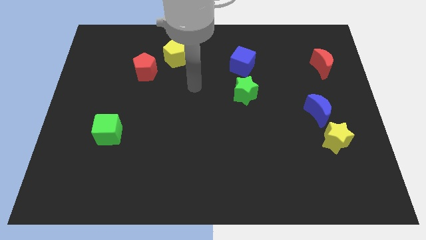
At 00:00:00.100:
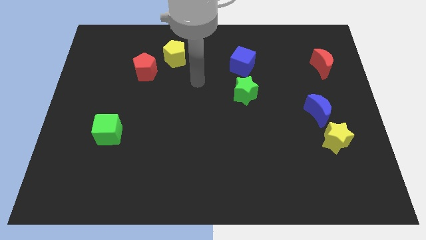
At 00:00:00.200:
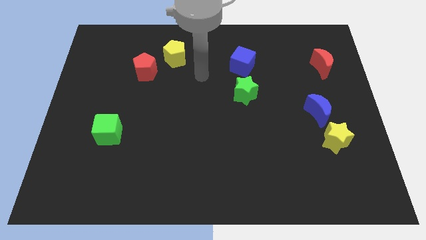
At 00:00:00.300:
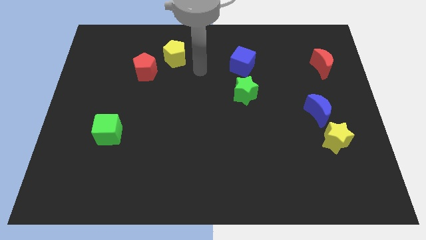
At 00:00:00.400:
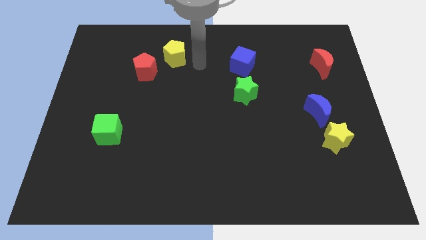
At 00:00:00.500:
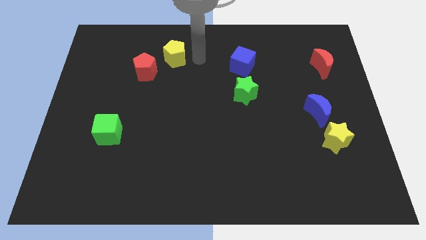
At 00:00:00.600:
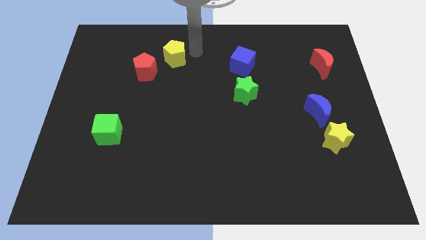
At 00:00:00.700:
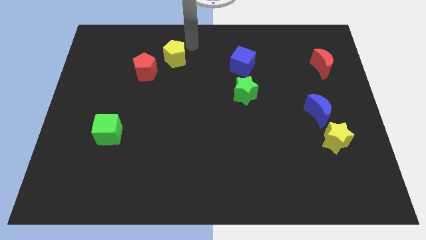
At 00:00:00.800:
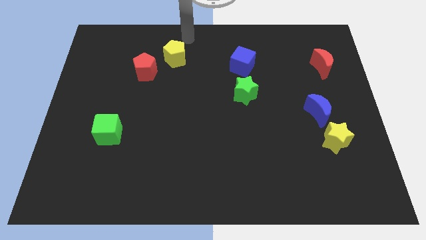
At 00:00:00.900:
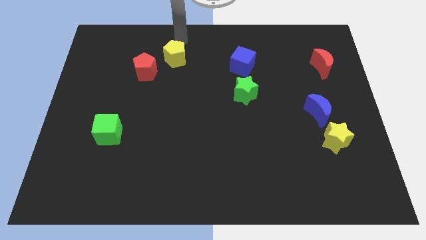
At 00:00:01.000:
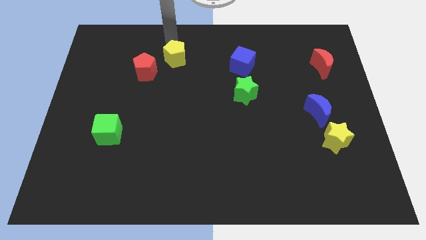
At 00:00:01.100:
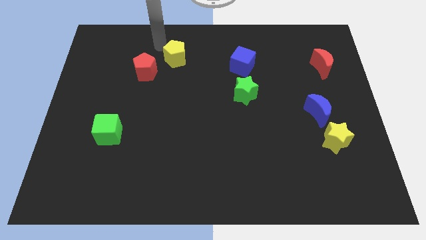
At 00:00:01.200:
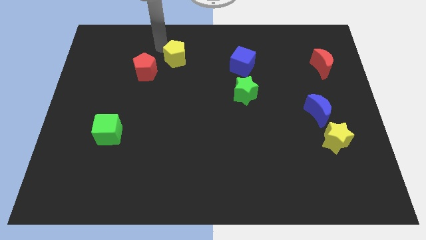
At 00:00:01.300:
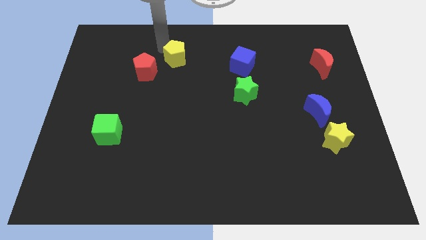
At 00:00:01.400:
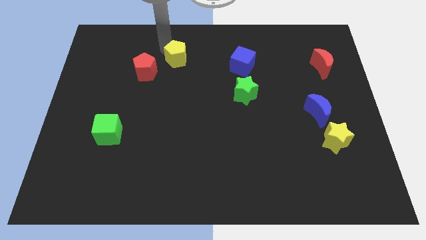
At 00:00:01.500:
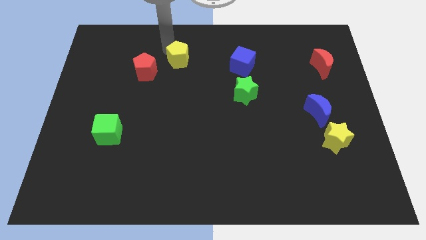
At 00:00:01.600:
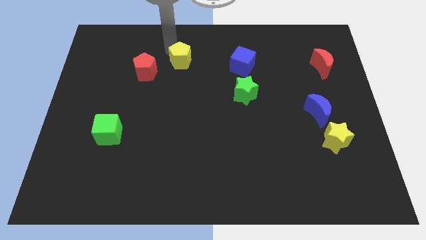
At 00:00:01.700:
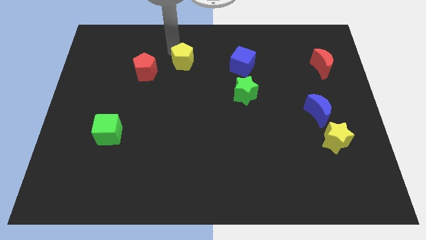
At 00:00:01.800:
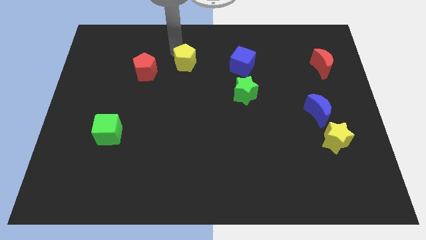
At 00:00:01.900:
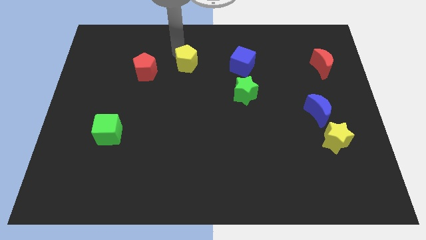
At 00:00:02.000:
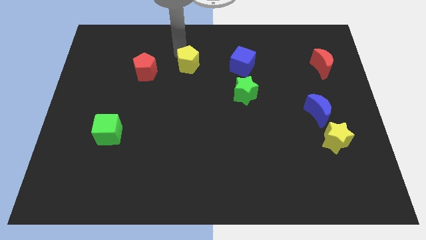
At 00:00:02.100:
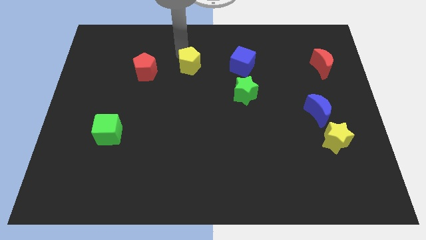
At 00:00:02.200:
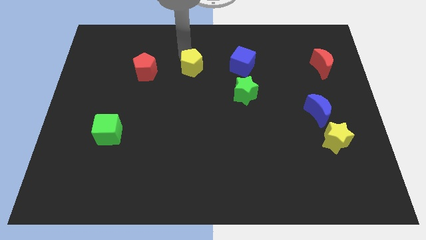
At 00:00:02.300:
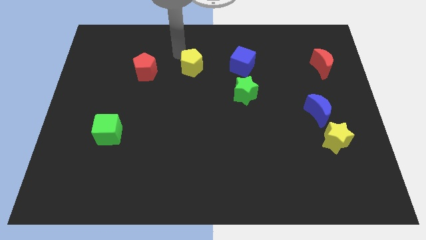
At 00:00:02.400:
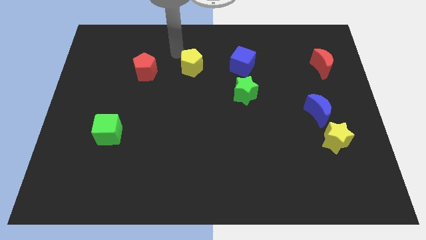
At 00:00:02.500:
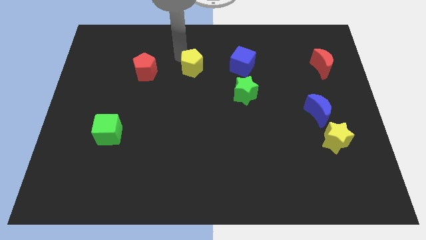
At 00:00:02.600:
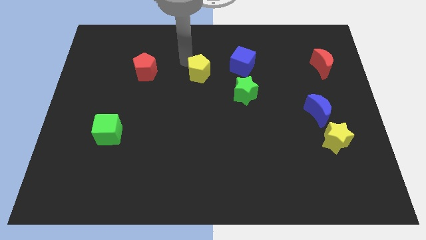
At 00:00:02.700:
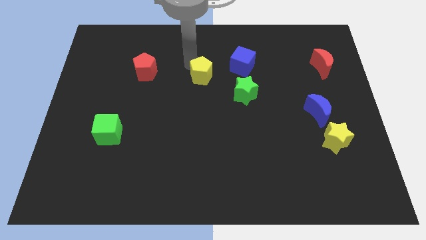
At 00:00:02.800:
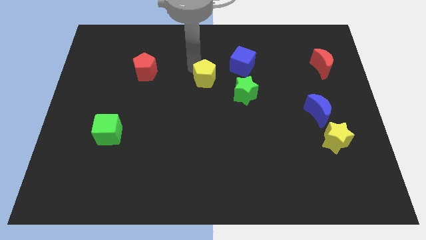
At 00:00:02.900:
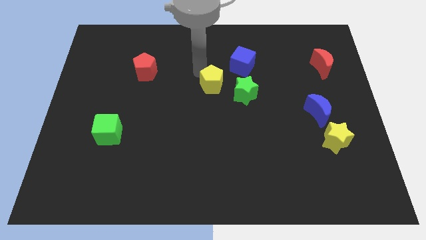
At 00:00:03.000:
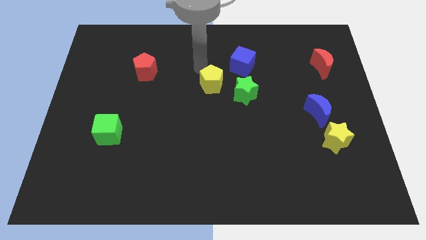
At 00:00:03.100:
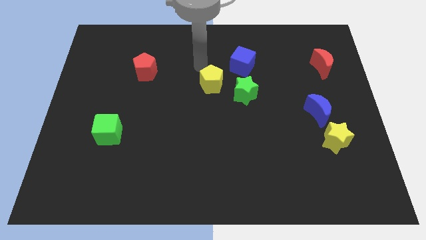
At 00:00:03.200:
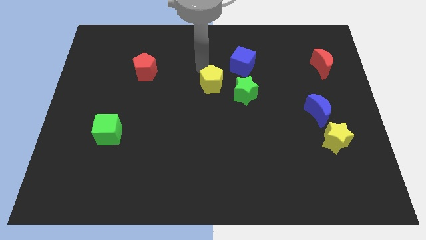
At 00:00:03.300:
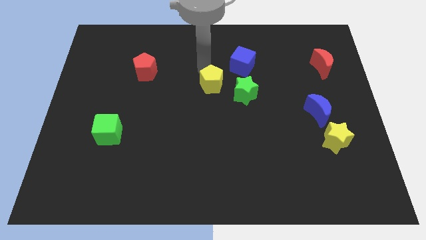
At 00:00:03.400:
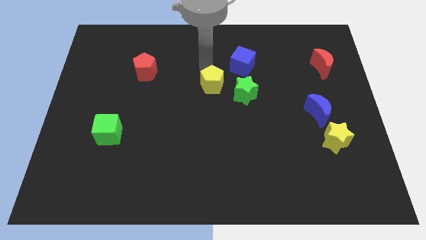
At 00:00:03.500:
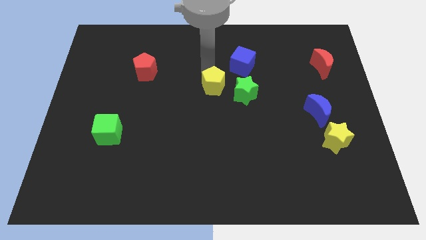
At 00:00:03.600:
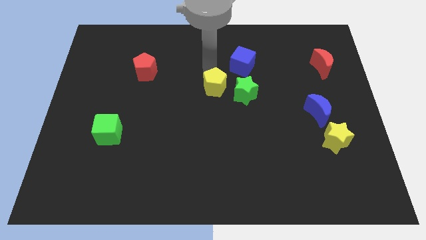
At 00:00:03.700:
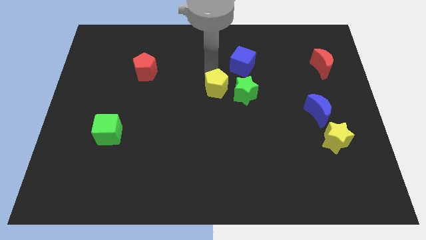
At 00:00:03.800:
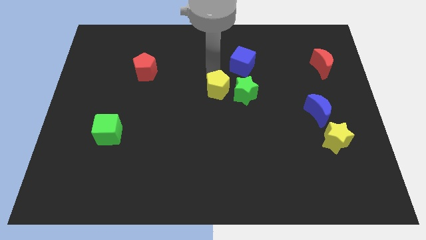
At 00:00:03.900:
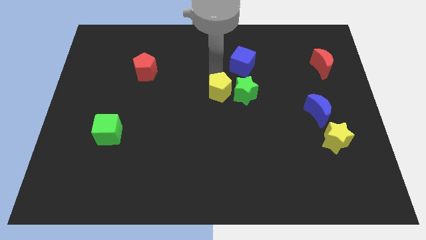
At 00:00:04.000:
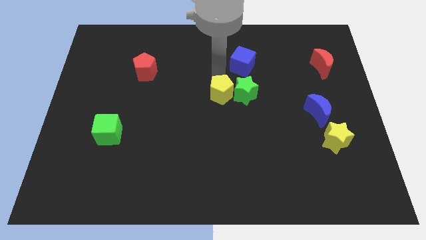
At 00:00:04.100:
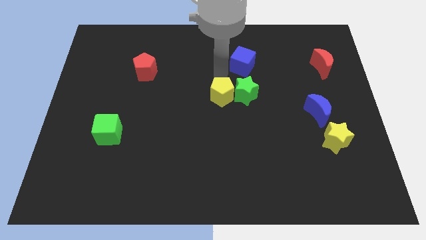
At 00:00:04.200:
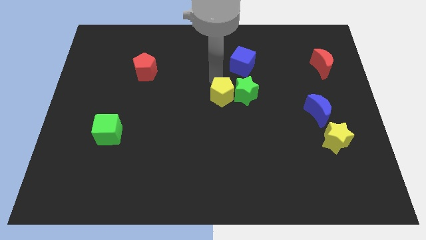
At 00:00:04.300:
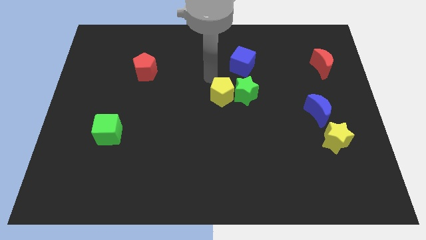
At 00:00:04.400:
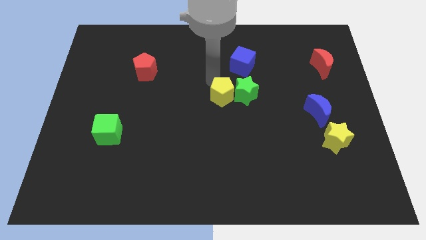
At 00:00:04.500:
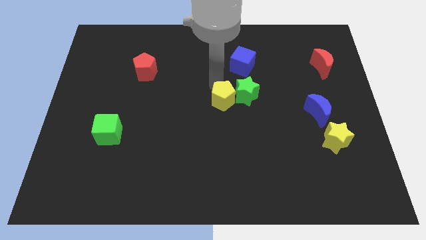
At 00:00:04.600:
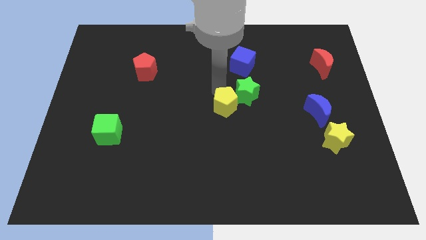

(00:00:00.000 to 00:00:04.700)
move the yellow pentagon down and to the right

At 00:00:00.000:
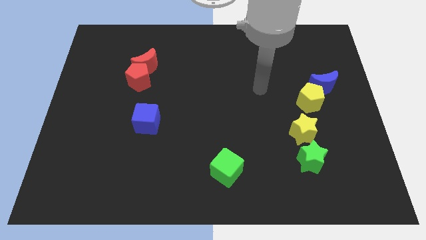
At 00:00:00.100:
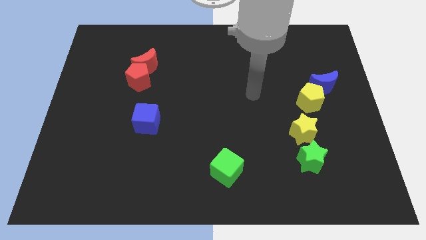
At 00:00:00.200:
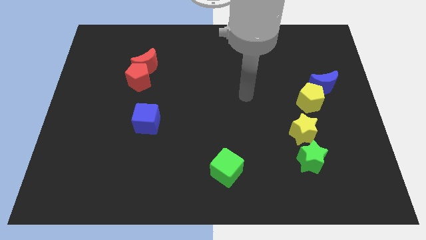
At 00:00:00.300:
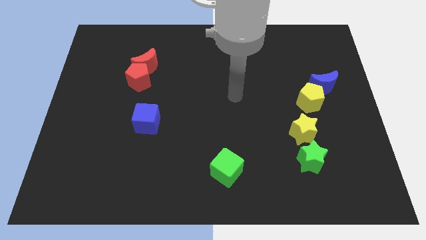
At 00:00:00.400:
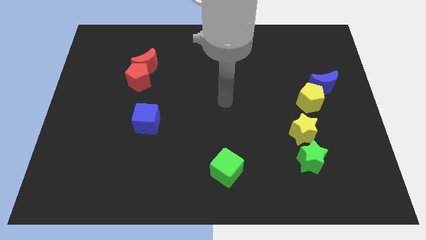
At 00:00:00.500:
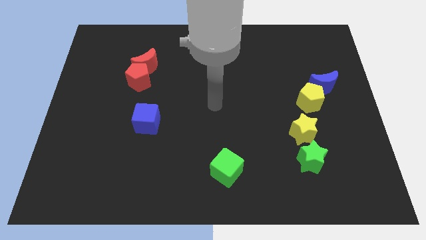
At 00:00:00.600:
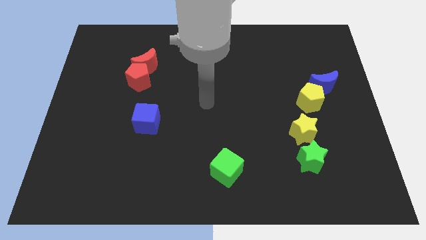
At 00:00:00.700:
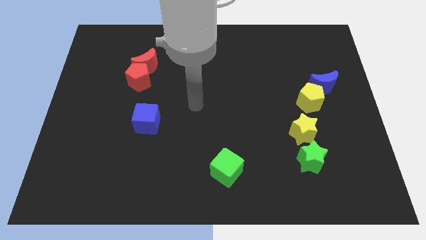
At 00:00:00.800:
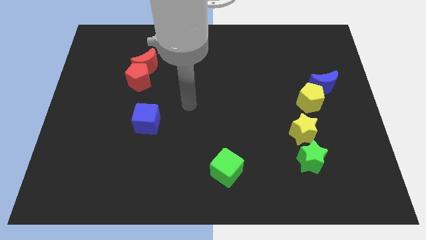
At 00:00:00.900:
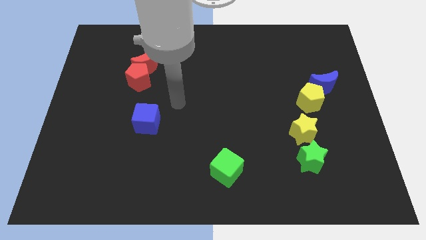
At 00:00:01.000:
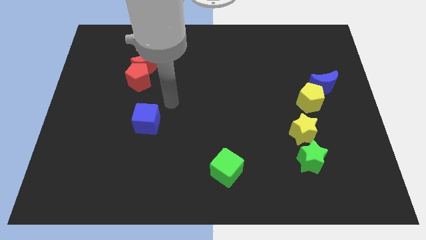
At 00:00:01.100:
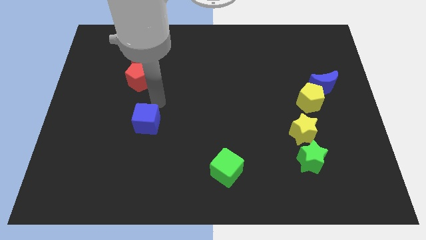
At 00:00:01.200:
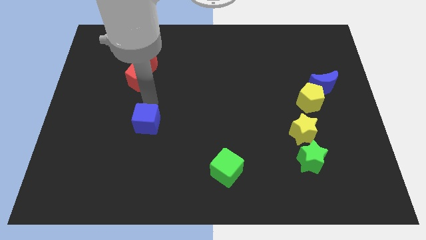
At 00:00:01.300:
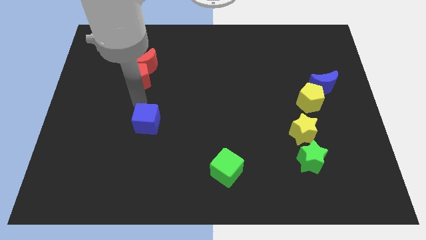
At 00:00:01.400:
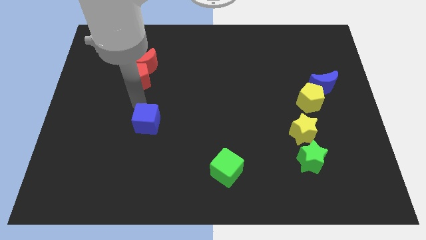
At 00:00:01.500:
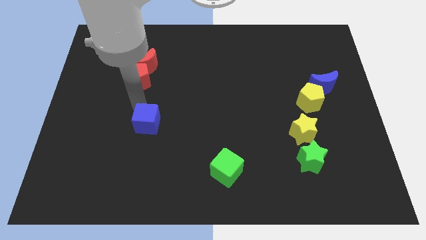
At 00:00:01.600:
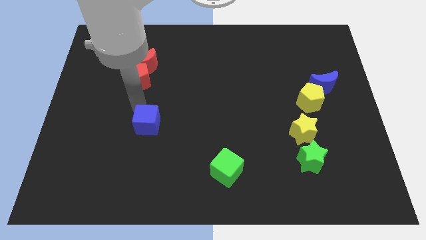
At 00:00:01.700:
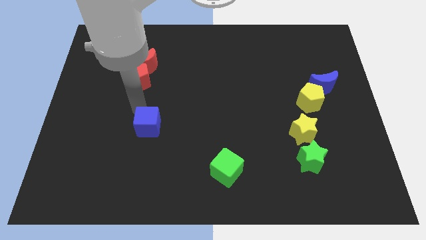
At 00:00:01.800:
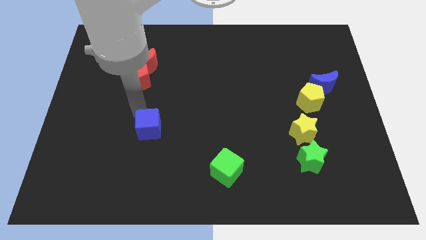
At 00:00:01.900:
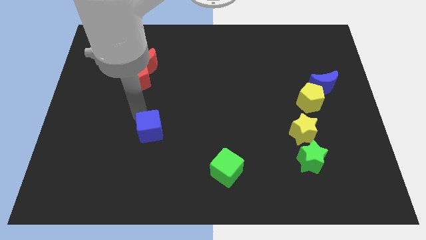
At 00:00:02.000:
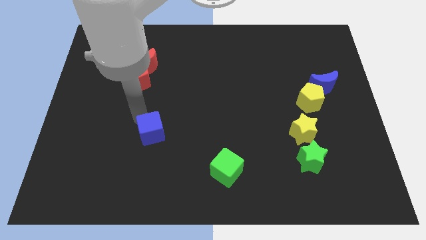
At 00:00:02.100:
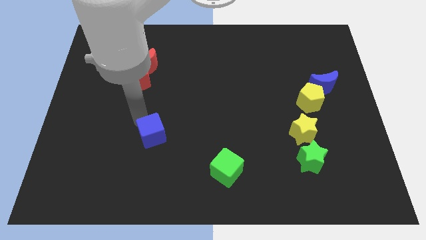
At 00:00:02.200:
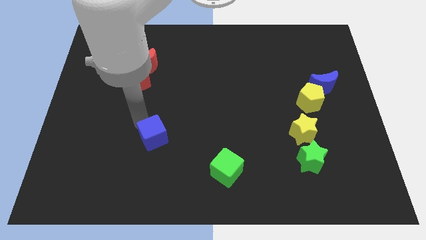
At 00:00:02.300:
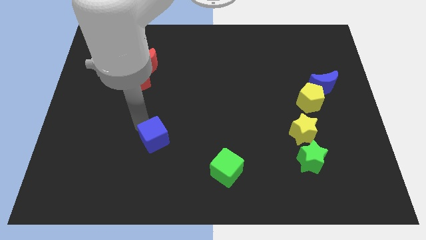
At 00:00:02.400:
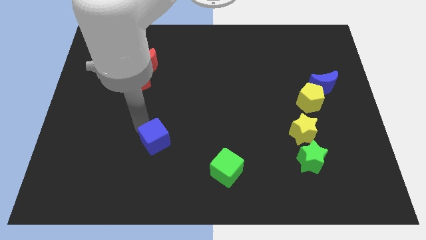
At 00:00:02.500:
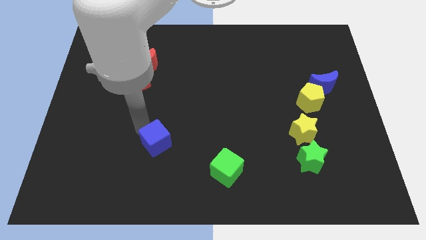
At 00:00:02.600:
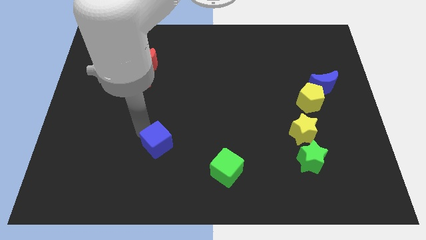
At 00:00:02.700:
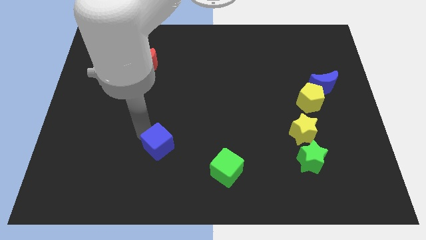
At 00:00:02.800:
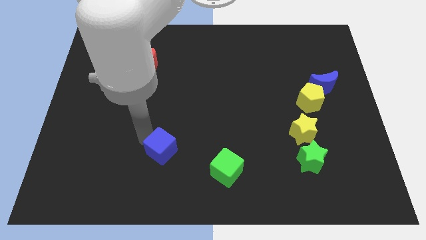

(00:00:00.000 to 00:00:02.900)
move the blue cube a little down and then to the right

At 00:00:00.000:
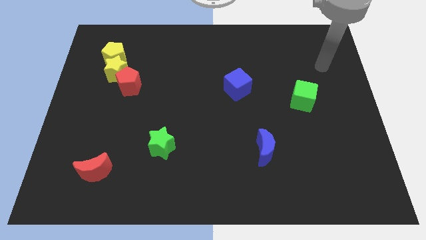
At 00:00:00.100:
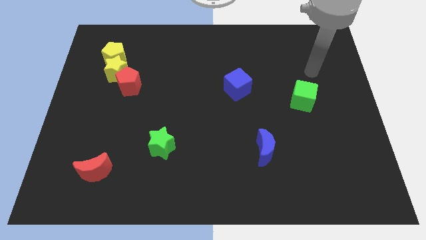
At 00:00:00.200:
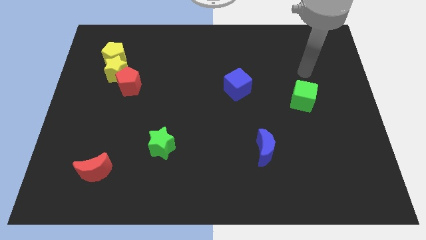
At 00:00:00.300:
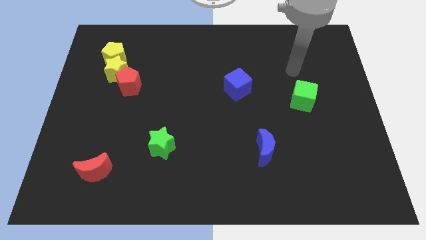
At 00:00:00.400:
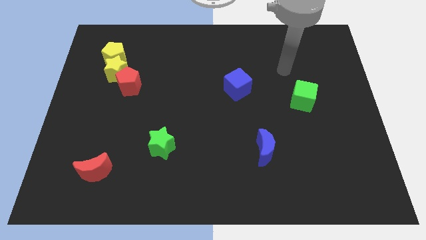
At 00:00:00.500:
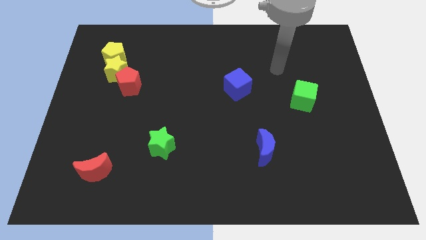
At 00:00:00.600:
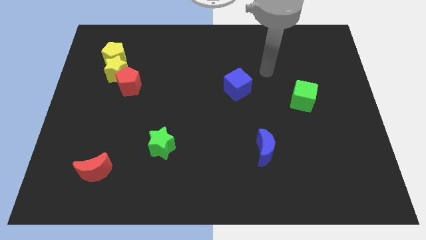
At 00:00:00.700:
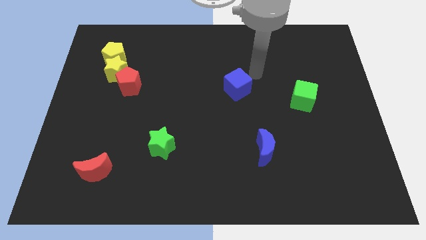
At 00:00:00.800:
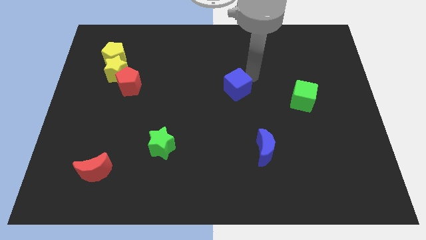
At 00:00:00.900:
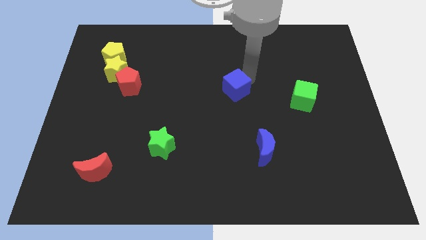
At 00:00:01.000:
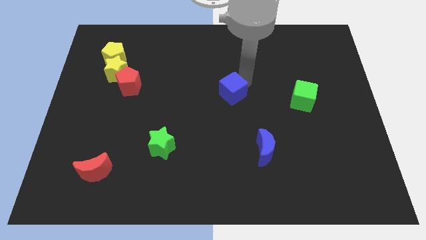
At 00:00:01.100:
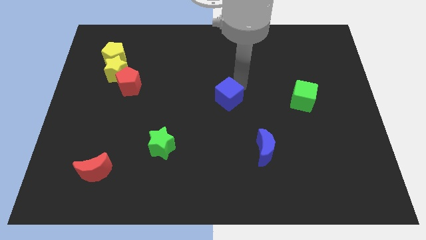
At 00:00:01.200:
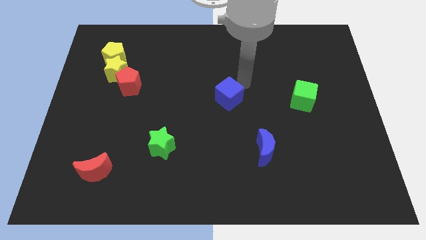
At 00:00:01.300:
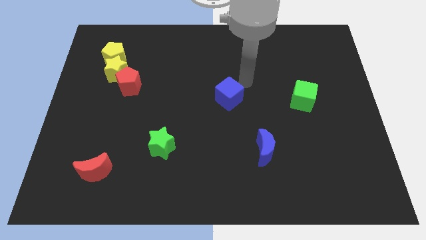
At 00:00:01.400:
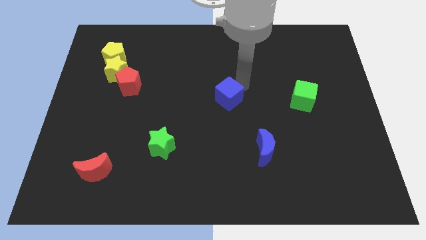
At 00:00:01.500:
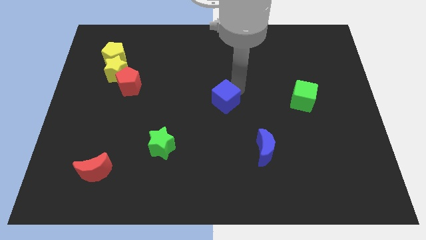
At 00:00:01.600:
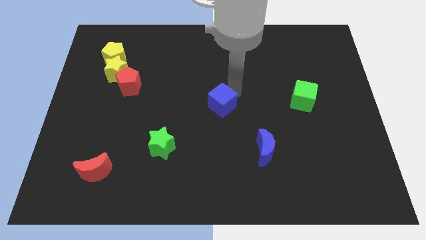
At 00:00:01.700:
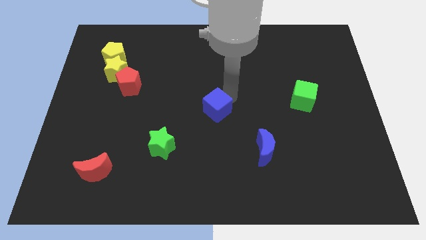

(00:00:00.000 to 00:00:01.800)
move the blue cube a little bit down and to the left
